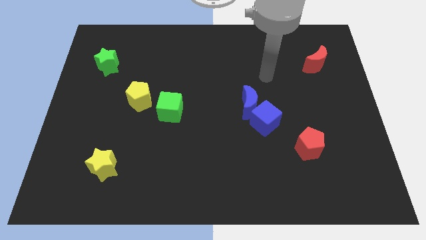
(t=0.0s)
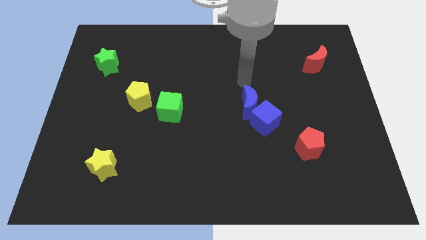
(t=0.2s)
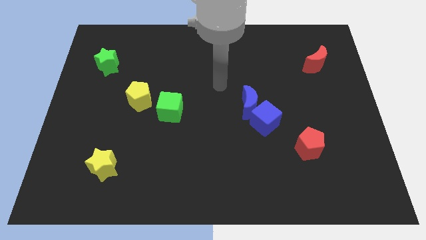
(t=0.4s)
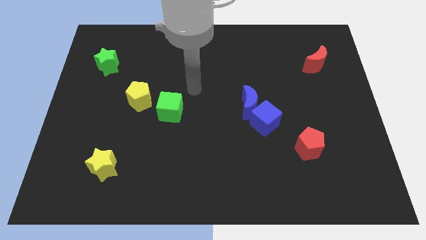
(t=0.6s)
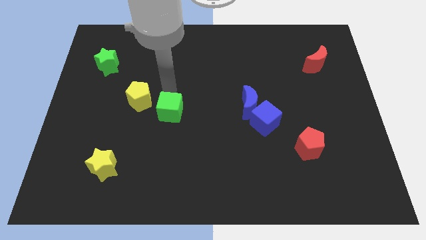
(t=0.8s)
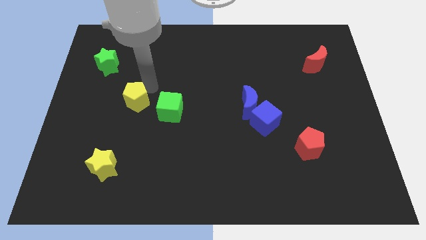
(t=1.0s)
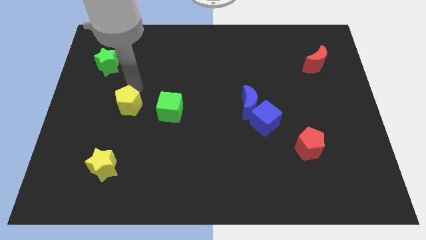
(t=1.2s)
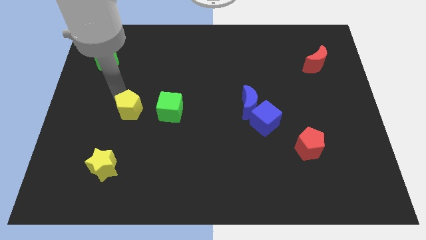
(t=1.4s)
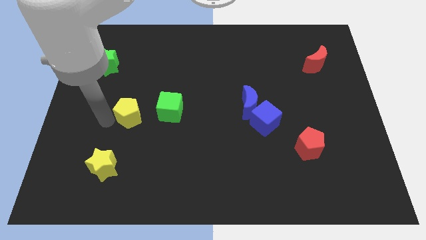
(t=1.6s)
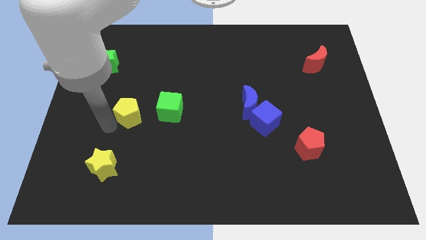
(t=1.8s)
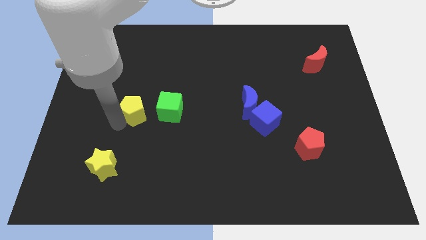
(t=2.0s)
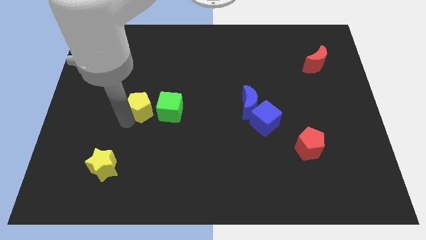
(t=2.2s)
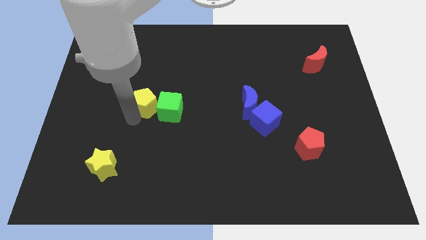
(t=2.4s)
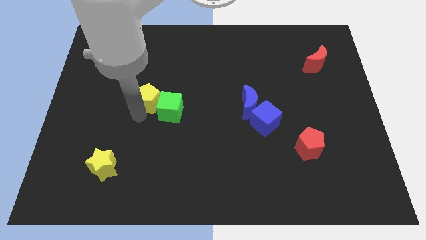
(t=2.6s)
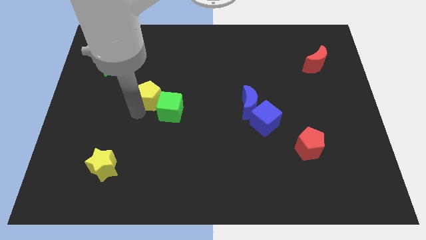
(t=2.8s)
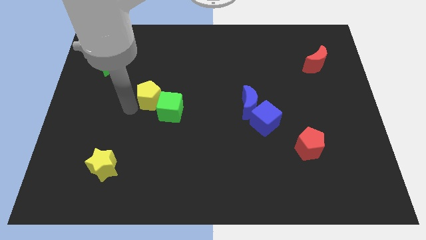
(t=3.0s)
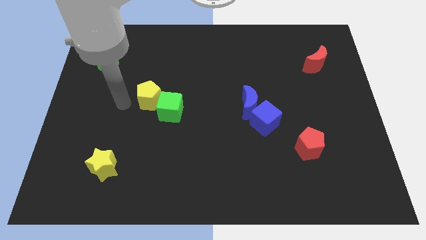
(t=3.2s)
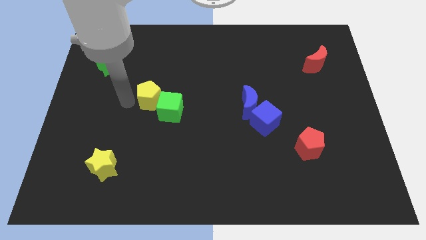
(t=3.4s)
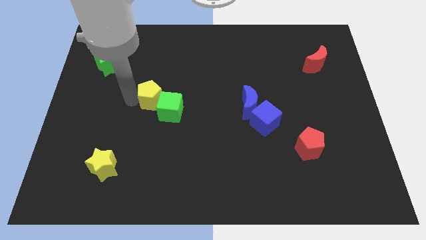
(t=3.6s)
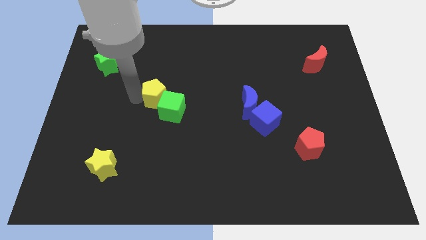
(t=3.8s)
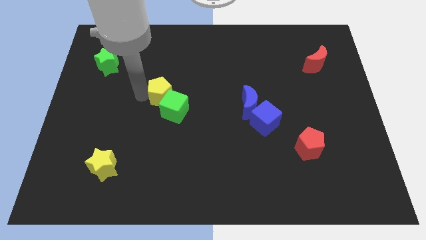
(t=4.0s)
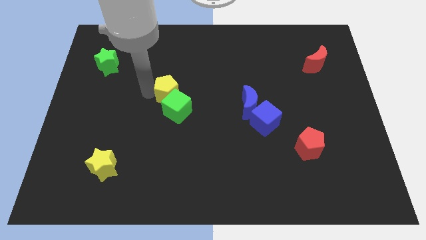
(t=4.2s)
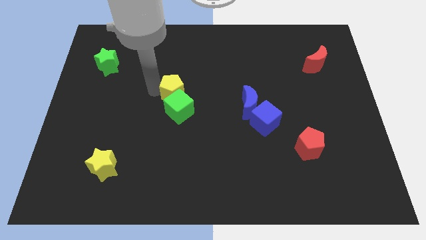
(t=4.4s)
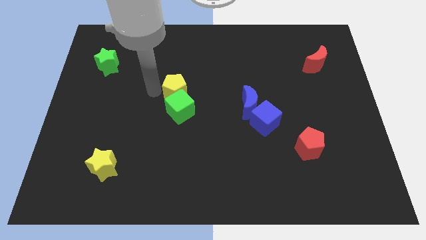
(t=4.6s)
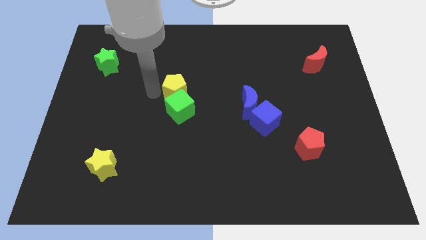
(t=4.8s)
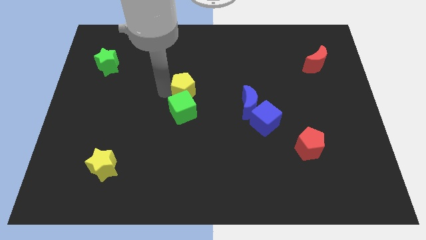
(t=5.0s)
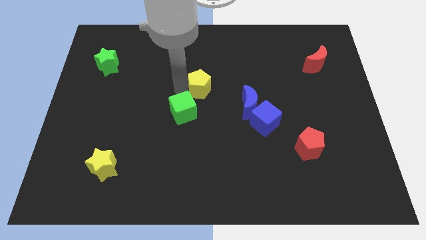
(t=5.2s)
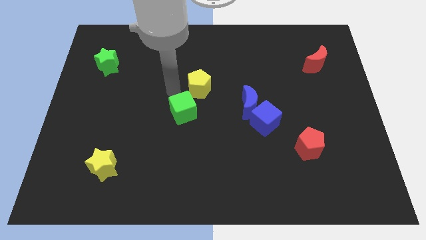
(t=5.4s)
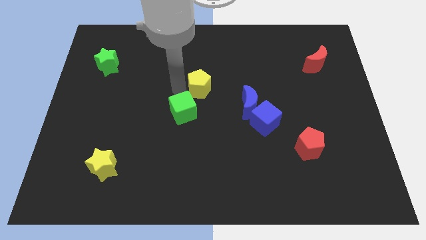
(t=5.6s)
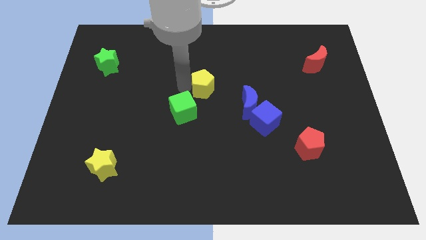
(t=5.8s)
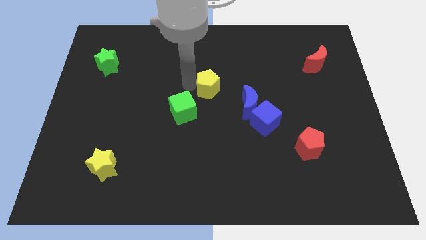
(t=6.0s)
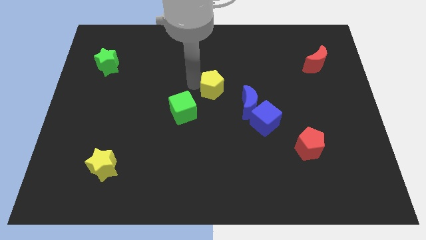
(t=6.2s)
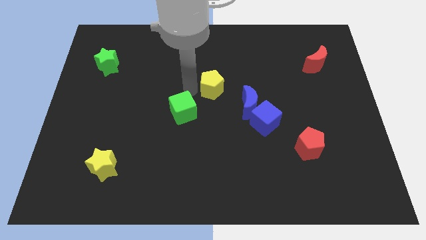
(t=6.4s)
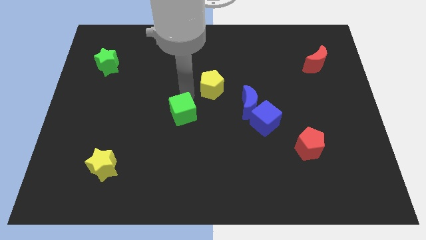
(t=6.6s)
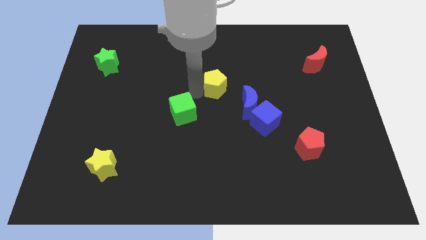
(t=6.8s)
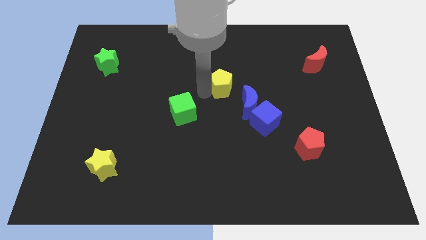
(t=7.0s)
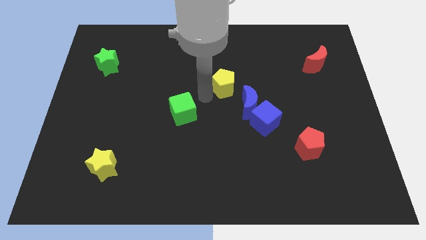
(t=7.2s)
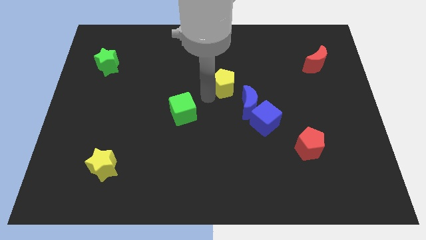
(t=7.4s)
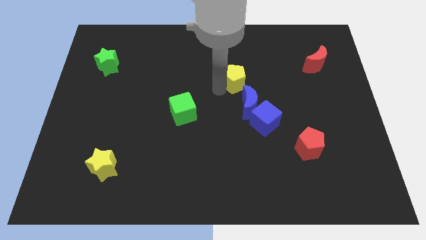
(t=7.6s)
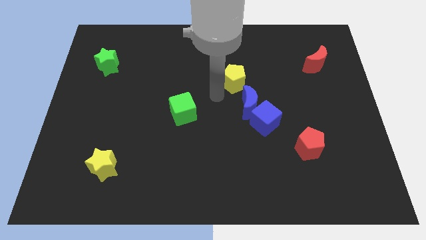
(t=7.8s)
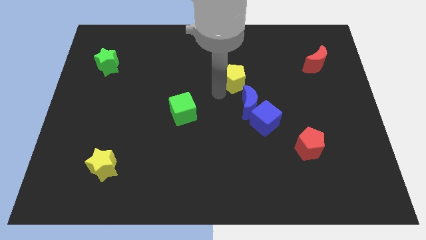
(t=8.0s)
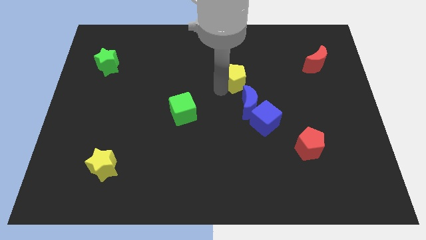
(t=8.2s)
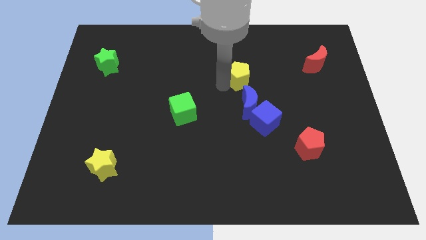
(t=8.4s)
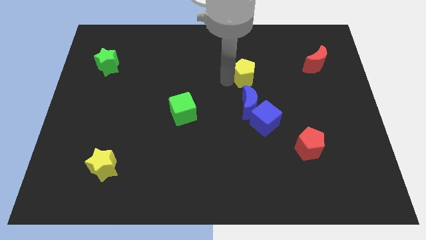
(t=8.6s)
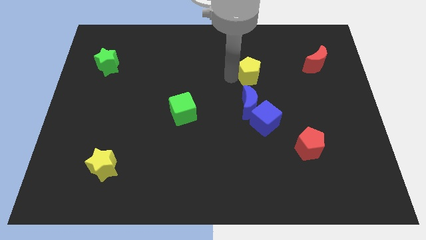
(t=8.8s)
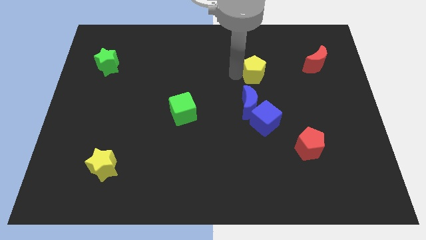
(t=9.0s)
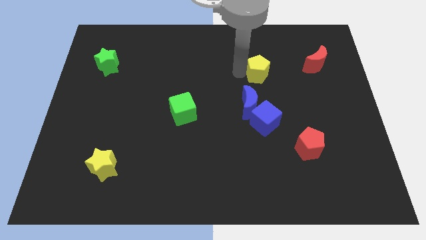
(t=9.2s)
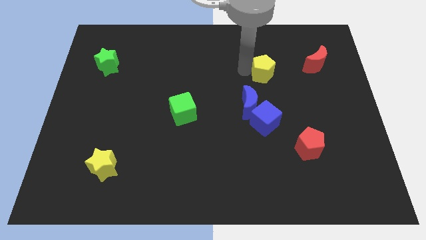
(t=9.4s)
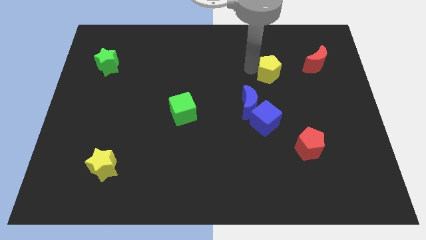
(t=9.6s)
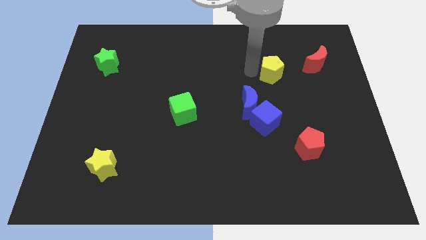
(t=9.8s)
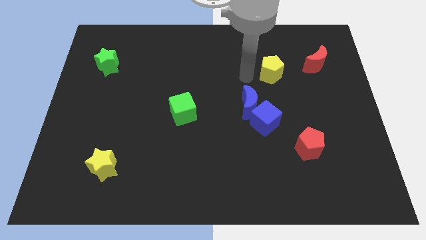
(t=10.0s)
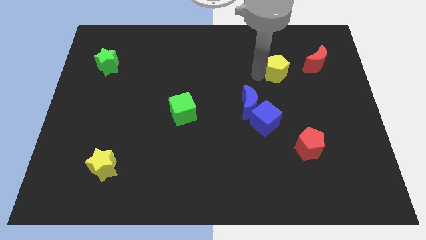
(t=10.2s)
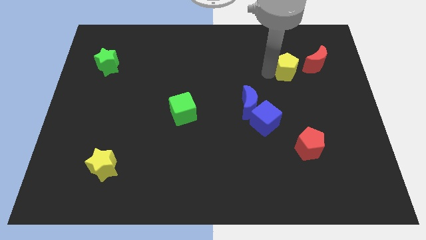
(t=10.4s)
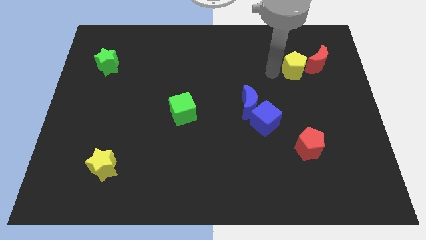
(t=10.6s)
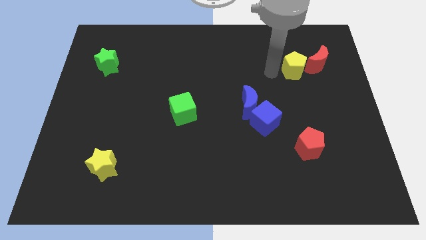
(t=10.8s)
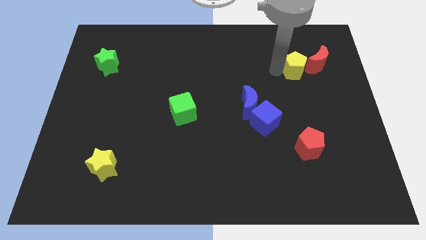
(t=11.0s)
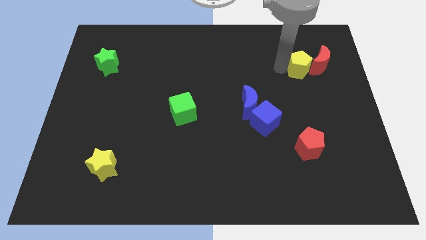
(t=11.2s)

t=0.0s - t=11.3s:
put the yellow pentagon to the red moon
